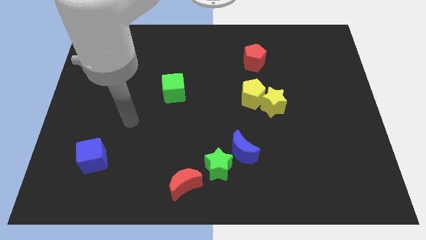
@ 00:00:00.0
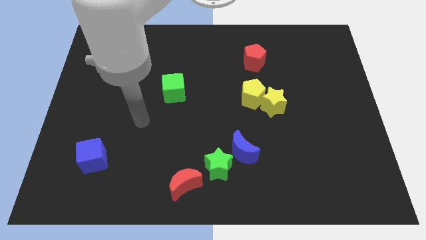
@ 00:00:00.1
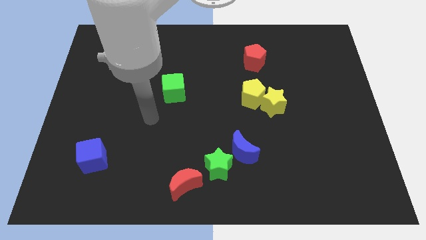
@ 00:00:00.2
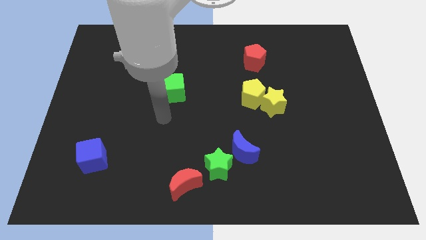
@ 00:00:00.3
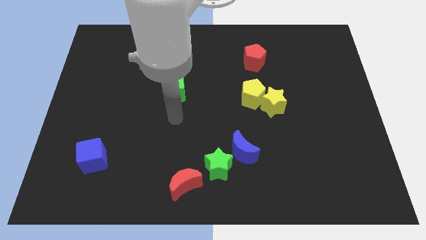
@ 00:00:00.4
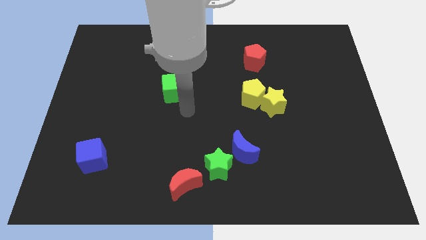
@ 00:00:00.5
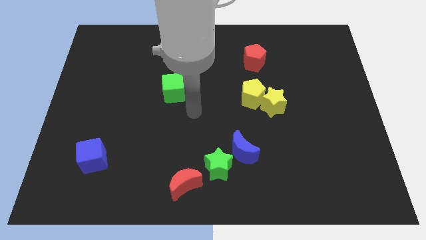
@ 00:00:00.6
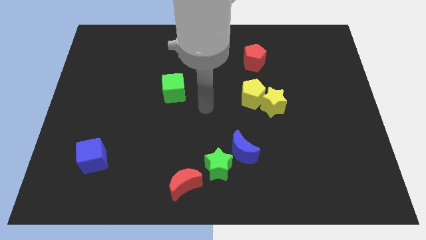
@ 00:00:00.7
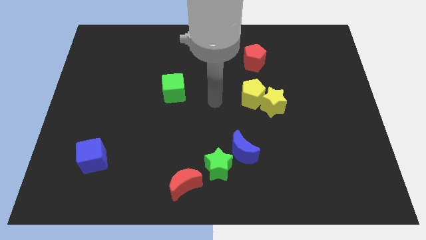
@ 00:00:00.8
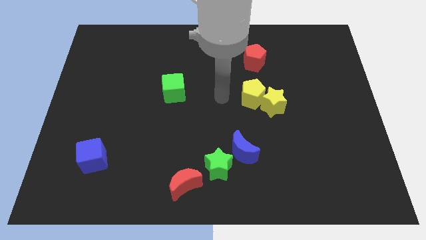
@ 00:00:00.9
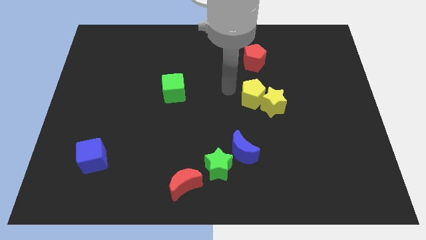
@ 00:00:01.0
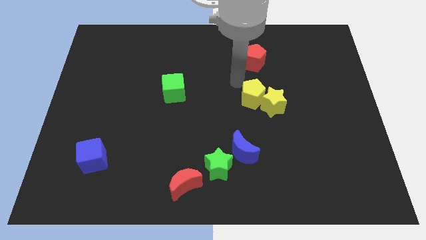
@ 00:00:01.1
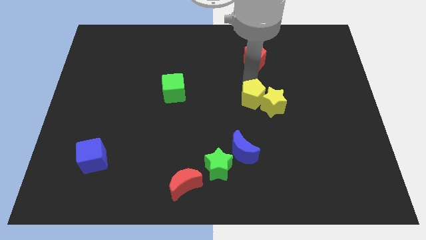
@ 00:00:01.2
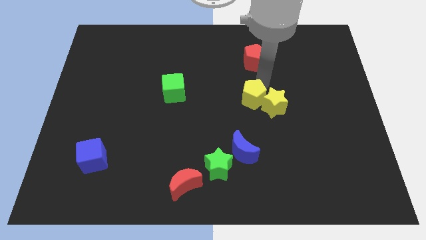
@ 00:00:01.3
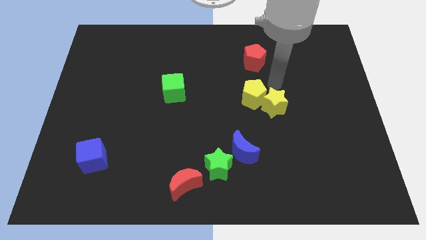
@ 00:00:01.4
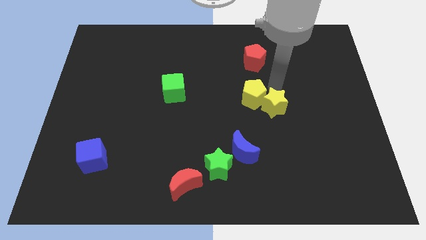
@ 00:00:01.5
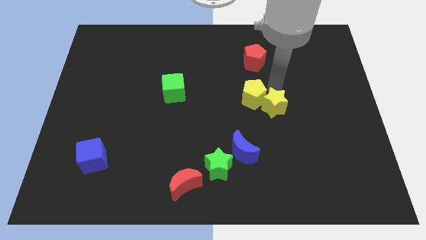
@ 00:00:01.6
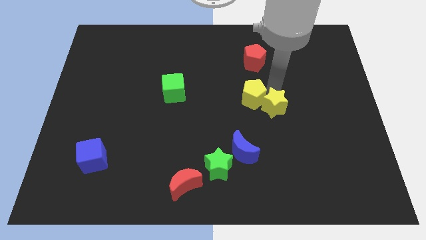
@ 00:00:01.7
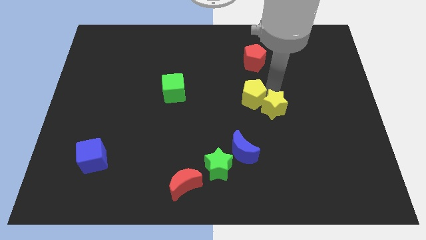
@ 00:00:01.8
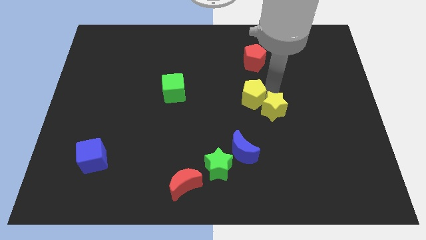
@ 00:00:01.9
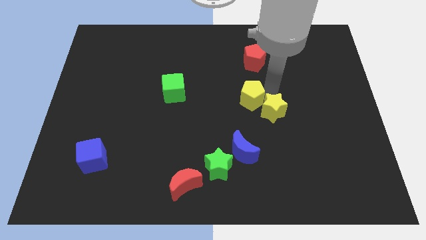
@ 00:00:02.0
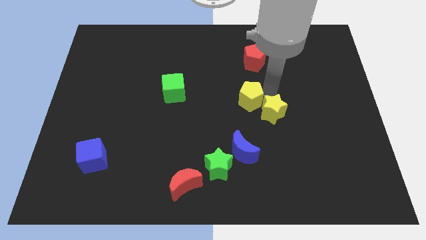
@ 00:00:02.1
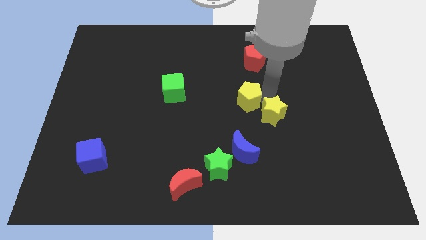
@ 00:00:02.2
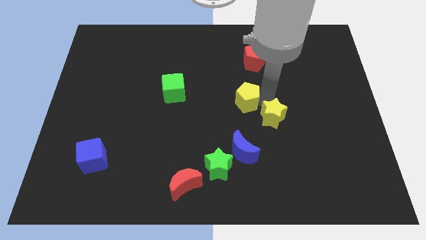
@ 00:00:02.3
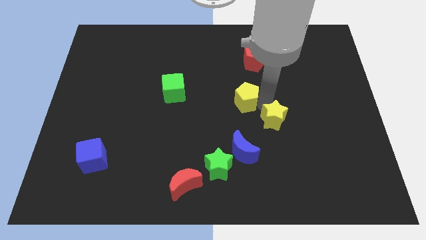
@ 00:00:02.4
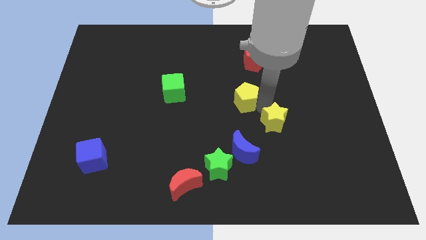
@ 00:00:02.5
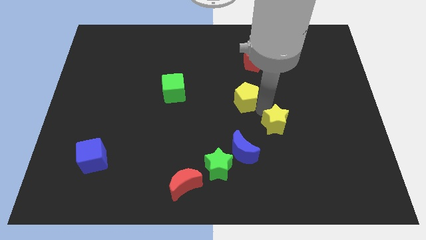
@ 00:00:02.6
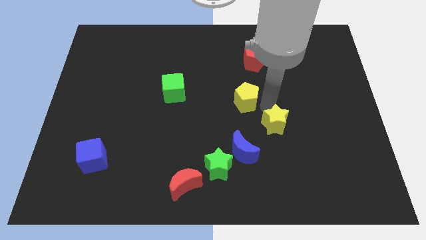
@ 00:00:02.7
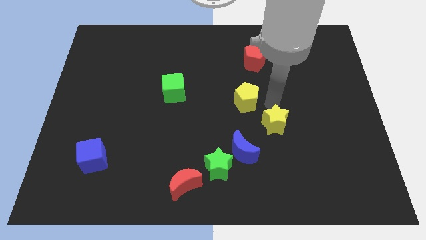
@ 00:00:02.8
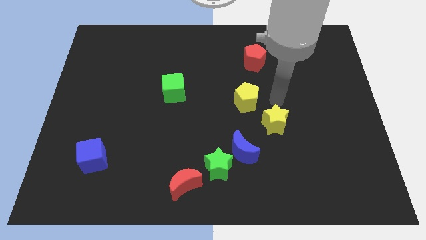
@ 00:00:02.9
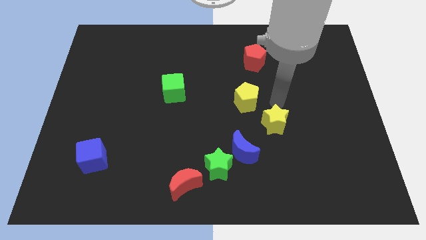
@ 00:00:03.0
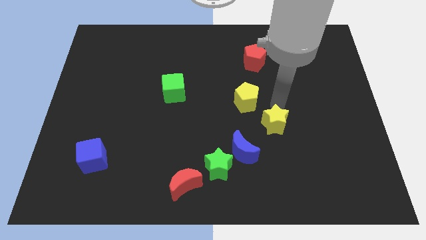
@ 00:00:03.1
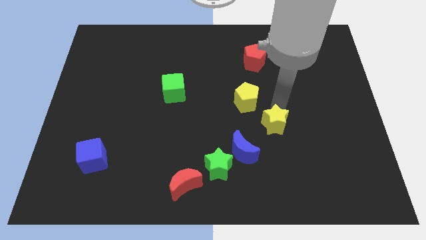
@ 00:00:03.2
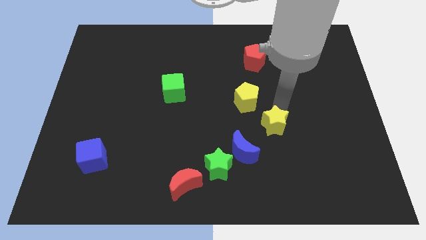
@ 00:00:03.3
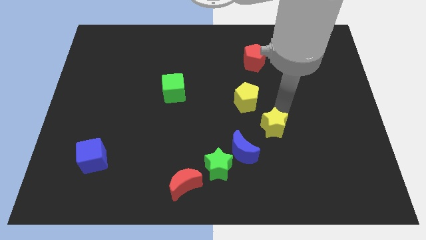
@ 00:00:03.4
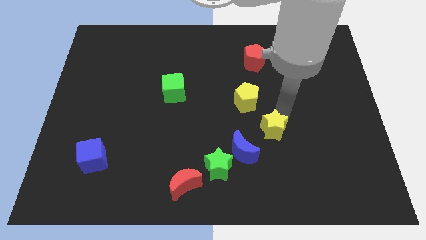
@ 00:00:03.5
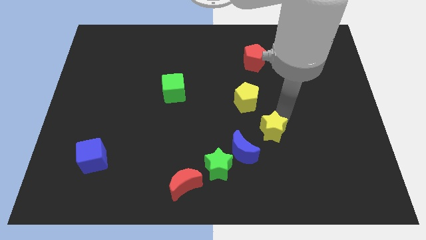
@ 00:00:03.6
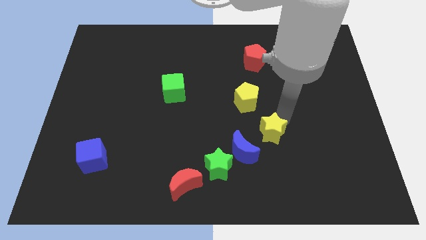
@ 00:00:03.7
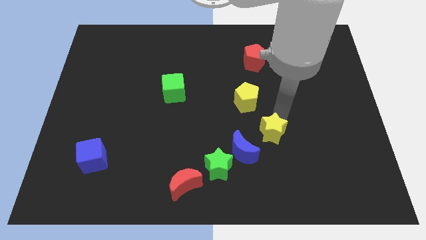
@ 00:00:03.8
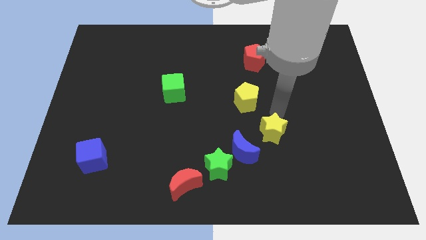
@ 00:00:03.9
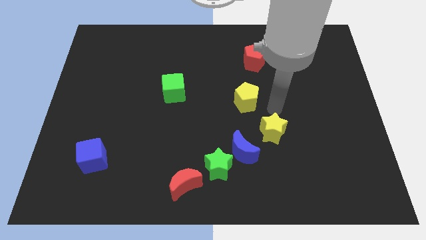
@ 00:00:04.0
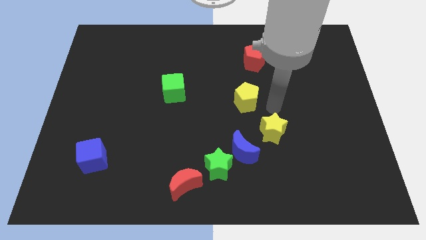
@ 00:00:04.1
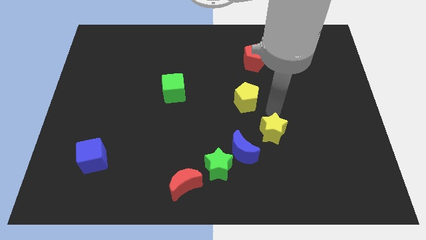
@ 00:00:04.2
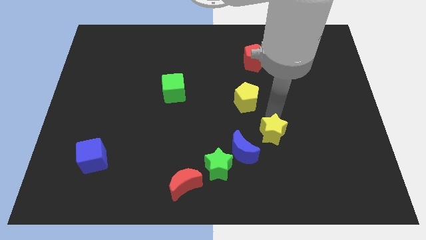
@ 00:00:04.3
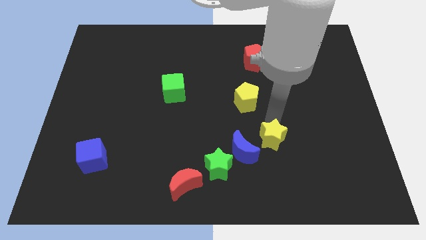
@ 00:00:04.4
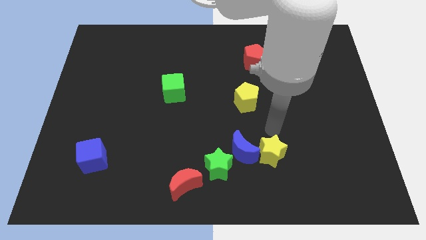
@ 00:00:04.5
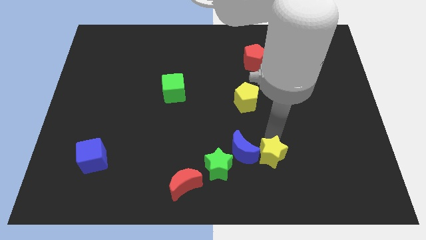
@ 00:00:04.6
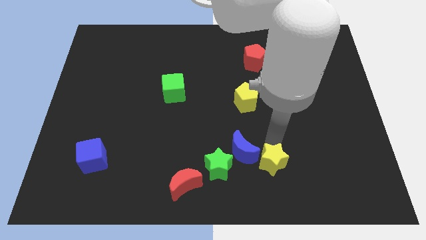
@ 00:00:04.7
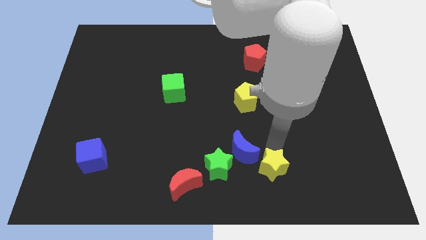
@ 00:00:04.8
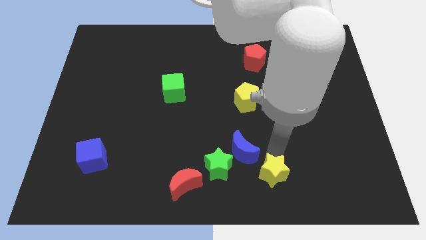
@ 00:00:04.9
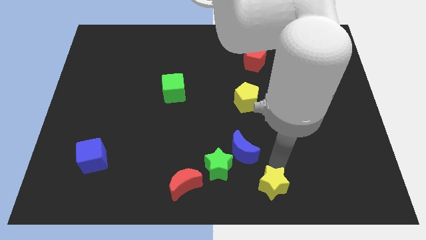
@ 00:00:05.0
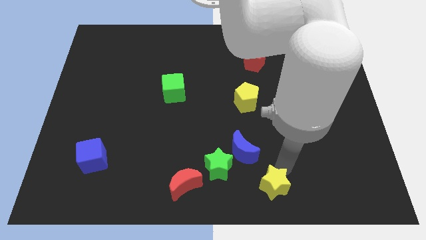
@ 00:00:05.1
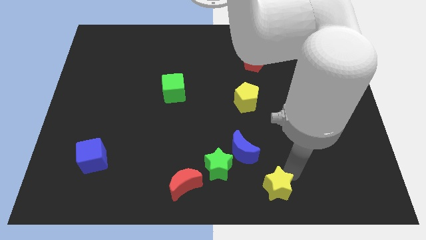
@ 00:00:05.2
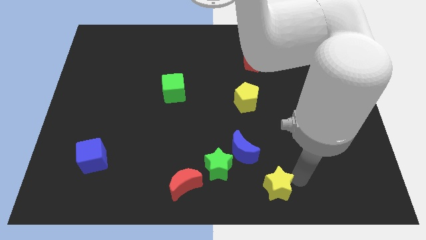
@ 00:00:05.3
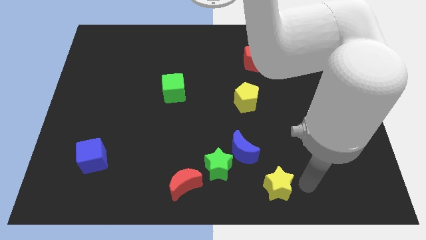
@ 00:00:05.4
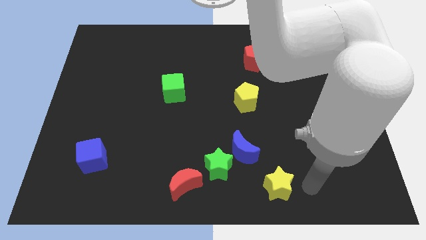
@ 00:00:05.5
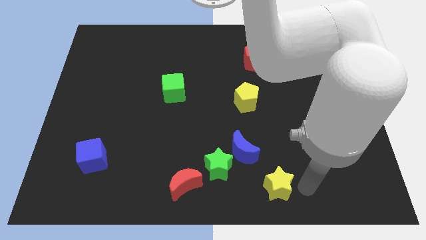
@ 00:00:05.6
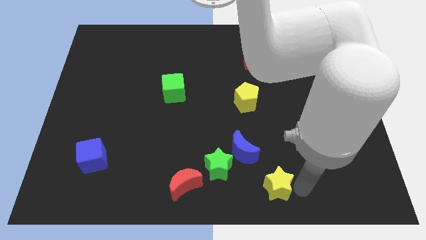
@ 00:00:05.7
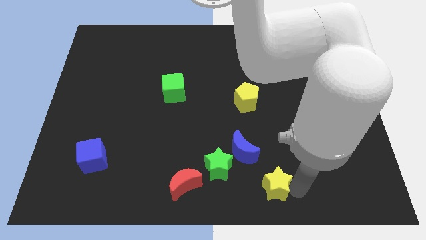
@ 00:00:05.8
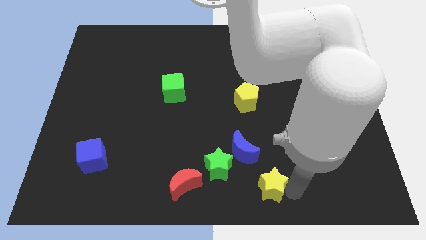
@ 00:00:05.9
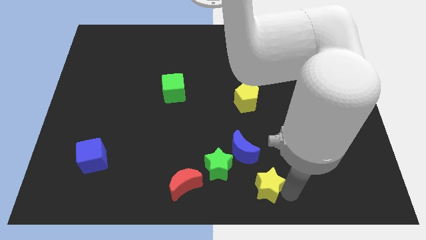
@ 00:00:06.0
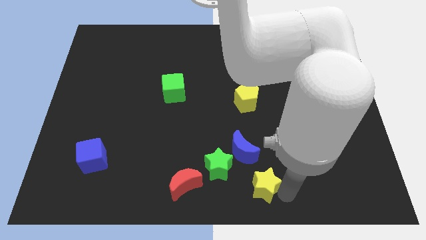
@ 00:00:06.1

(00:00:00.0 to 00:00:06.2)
push the yellow star to the right side of the red moon

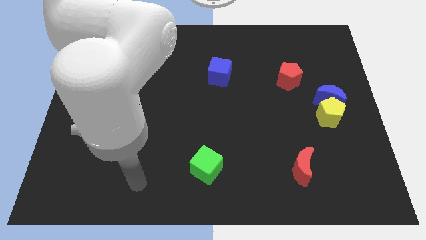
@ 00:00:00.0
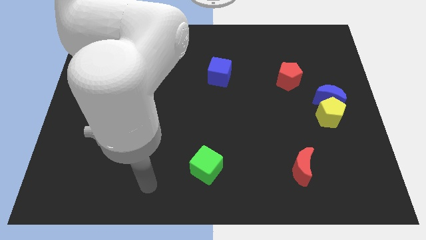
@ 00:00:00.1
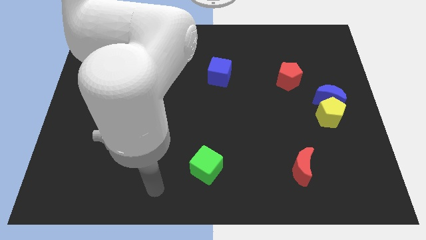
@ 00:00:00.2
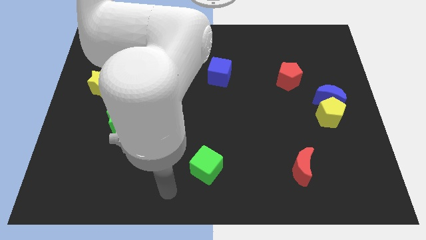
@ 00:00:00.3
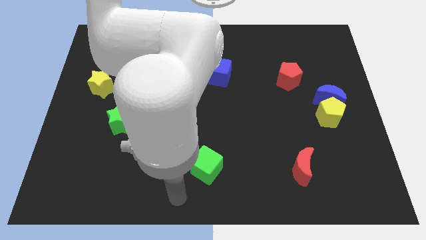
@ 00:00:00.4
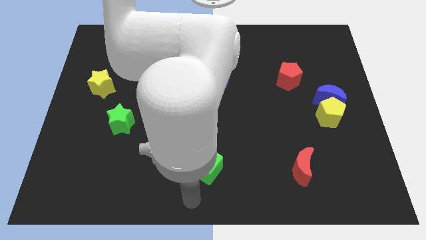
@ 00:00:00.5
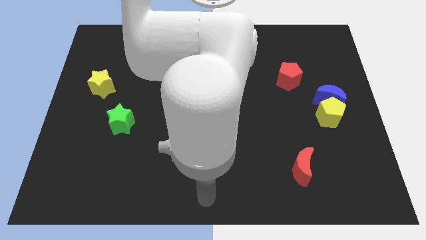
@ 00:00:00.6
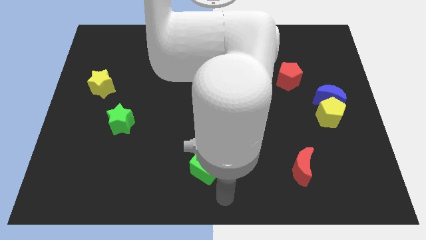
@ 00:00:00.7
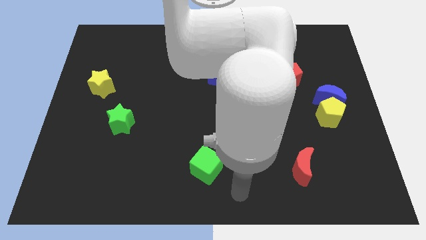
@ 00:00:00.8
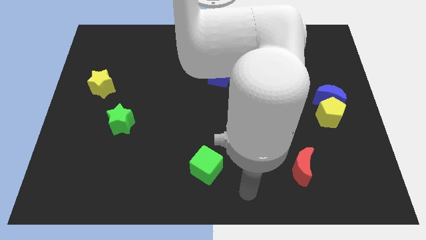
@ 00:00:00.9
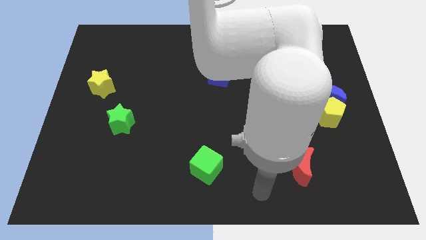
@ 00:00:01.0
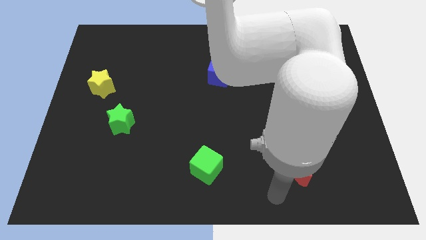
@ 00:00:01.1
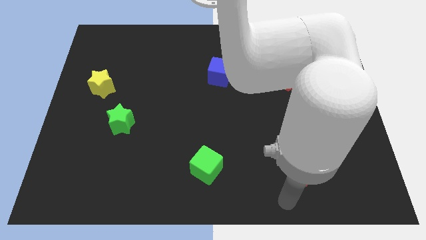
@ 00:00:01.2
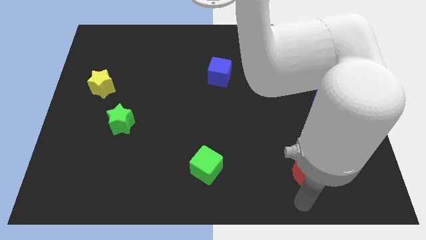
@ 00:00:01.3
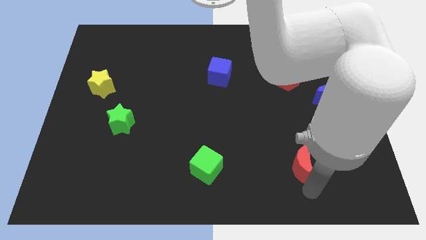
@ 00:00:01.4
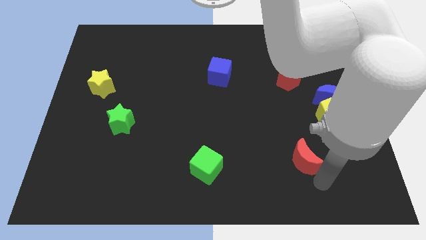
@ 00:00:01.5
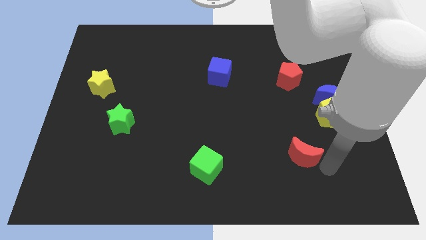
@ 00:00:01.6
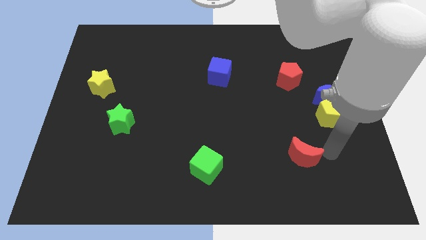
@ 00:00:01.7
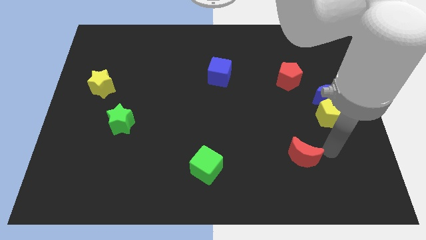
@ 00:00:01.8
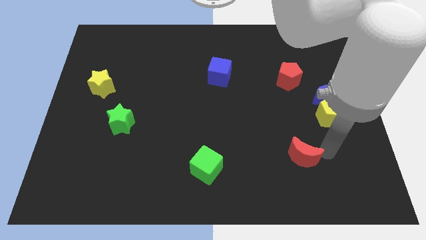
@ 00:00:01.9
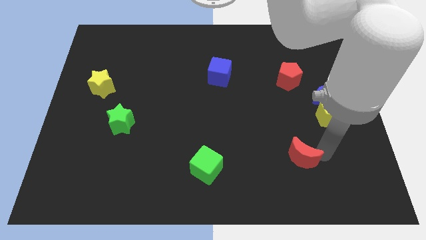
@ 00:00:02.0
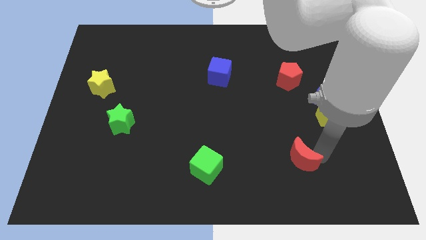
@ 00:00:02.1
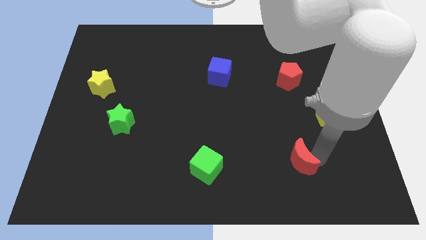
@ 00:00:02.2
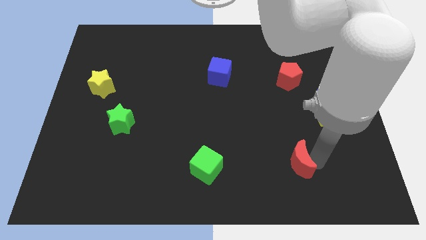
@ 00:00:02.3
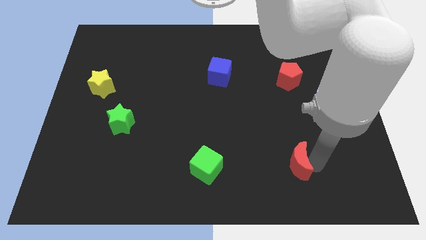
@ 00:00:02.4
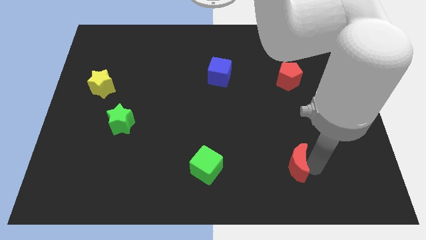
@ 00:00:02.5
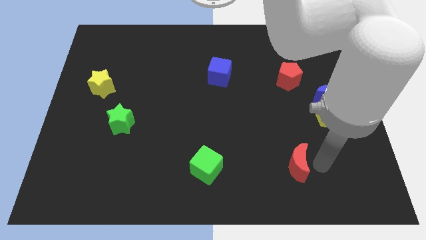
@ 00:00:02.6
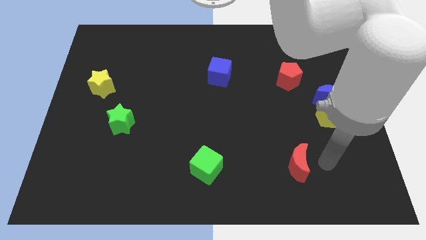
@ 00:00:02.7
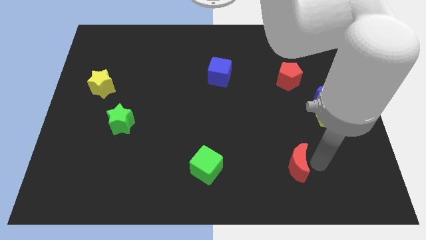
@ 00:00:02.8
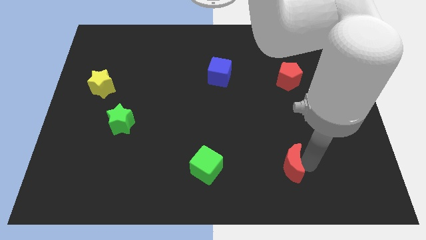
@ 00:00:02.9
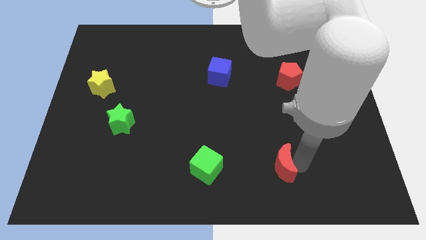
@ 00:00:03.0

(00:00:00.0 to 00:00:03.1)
move the red moon to the right side of the green cube
